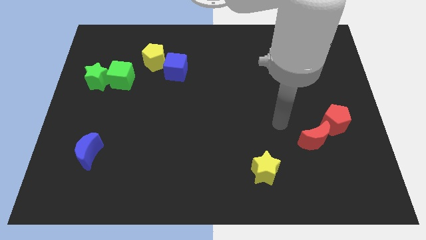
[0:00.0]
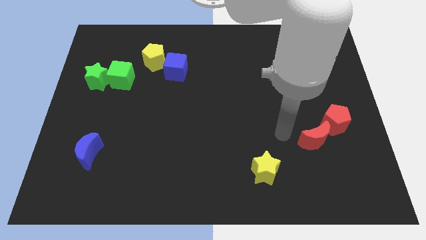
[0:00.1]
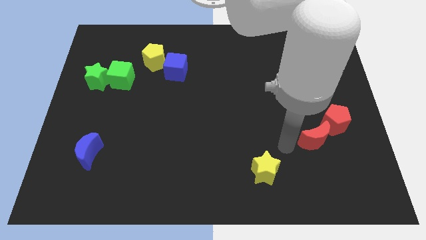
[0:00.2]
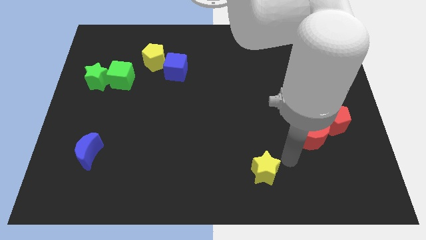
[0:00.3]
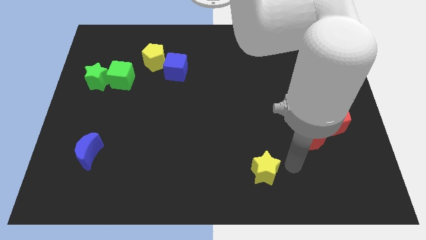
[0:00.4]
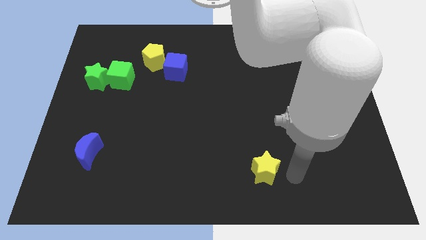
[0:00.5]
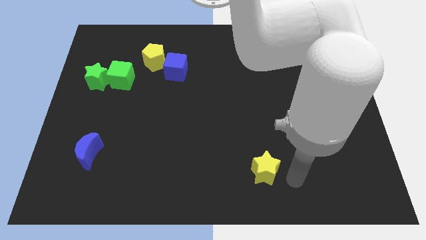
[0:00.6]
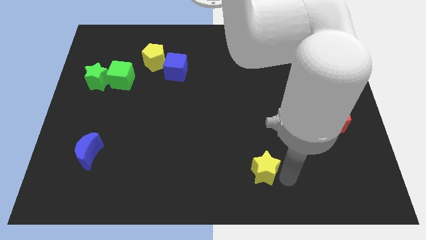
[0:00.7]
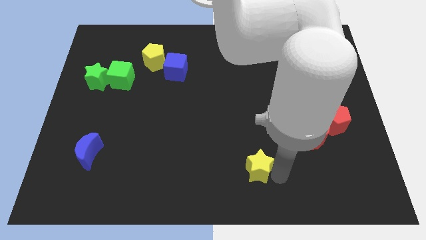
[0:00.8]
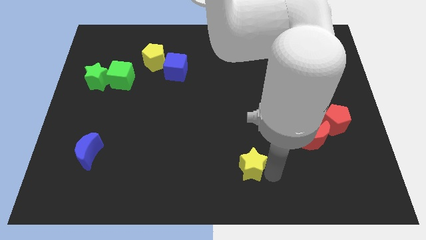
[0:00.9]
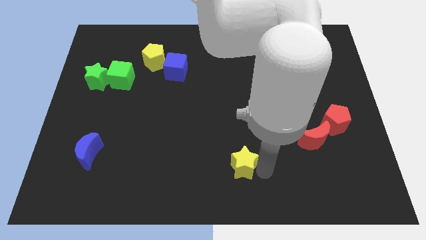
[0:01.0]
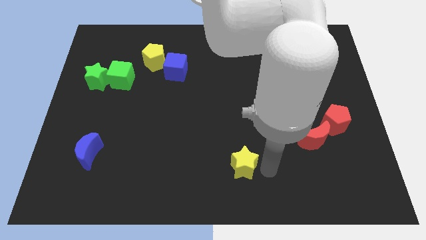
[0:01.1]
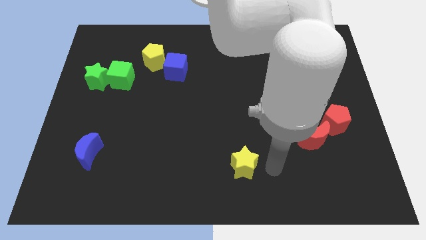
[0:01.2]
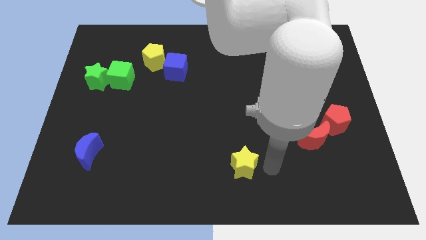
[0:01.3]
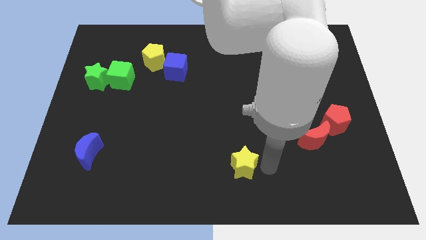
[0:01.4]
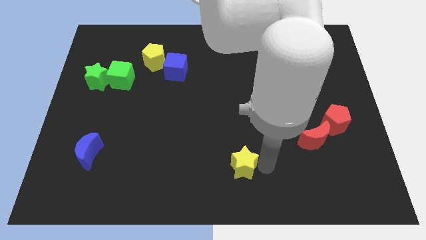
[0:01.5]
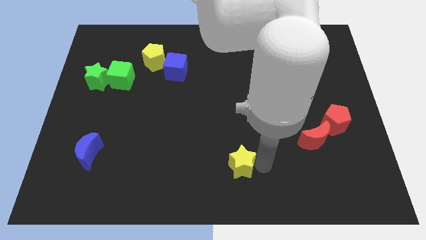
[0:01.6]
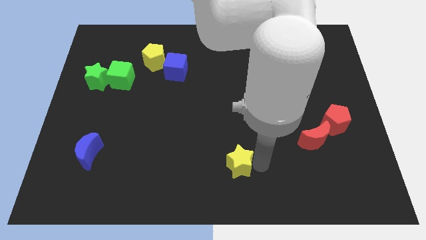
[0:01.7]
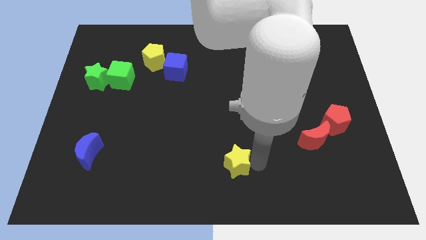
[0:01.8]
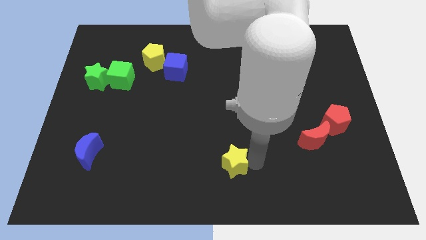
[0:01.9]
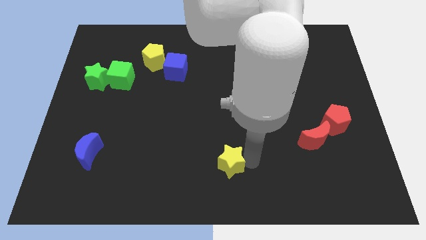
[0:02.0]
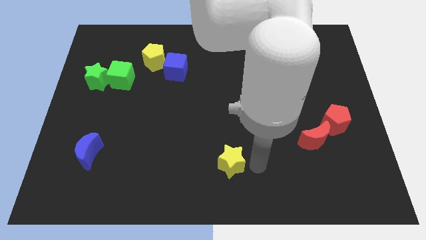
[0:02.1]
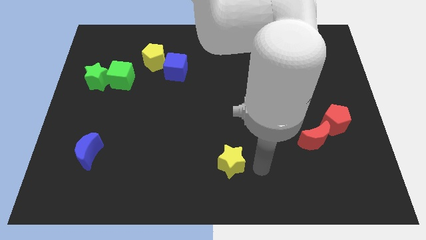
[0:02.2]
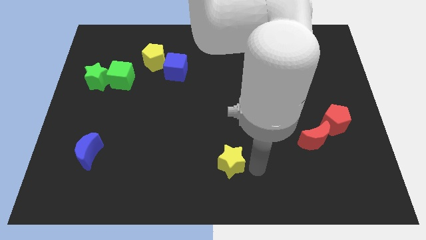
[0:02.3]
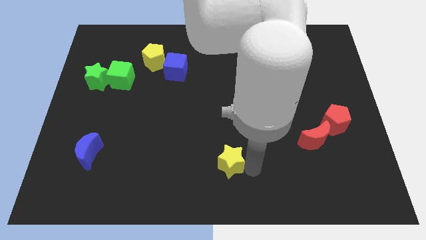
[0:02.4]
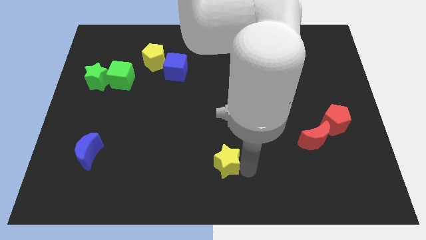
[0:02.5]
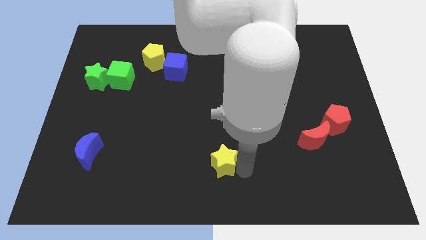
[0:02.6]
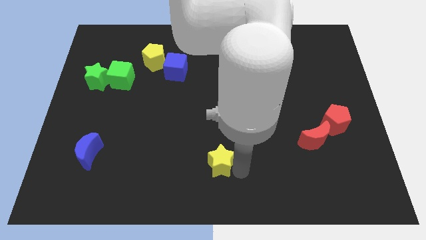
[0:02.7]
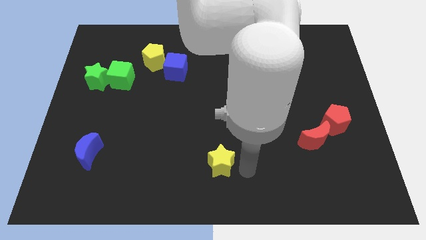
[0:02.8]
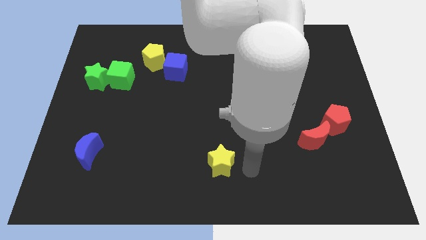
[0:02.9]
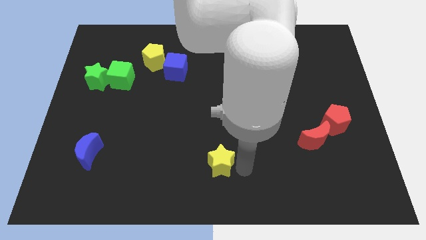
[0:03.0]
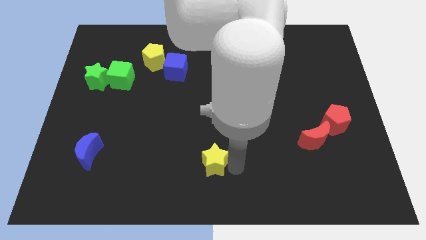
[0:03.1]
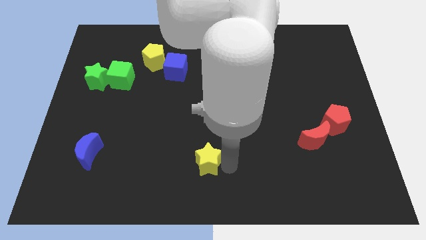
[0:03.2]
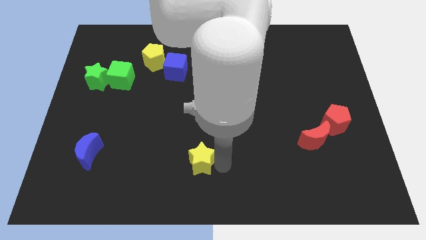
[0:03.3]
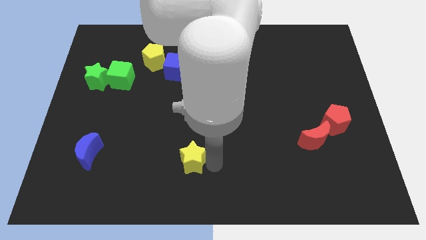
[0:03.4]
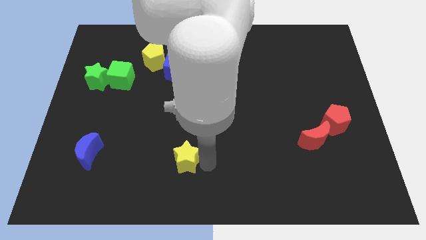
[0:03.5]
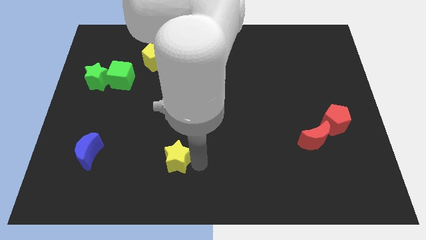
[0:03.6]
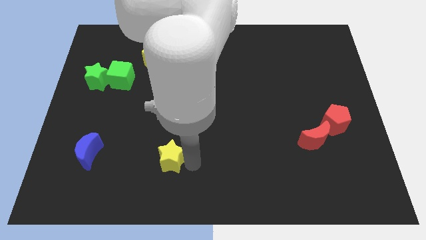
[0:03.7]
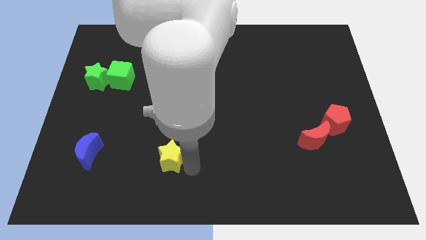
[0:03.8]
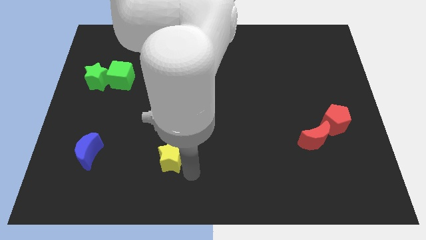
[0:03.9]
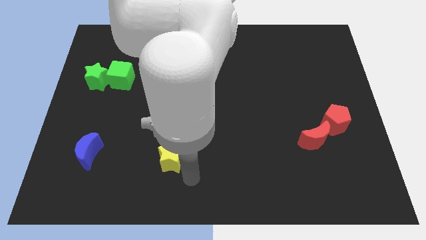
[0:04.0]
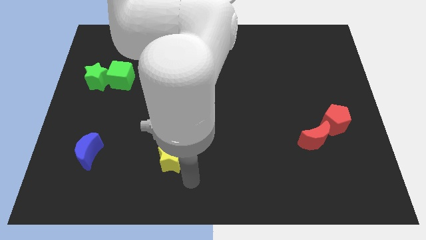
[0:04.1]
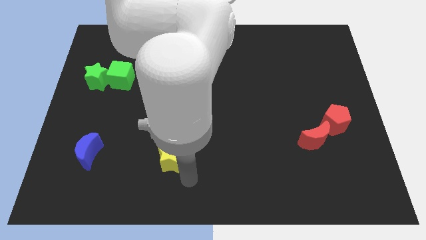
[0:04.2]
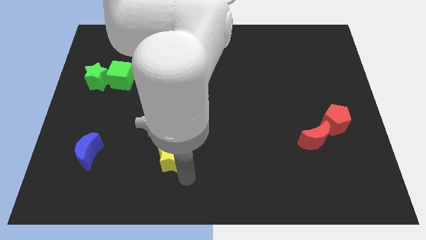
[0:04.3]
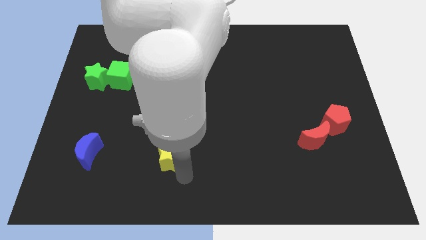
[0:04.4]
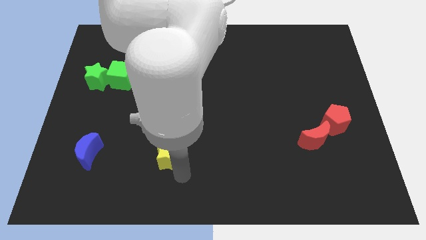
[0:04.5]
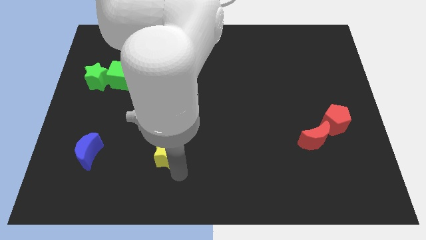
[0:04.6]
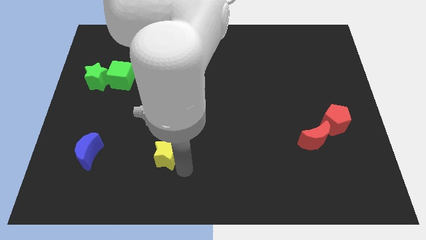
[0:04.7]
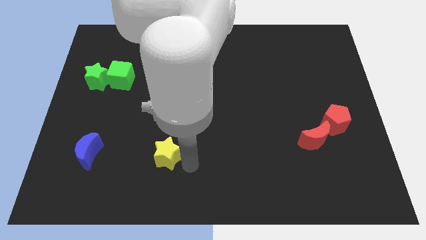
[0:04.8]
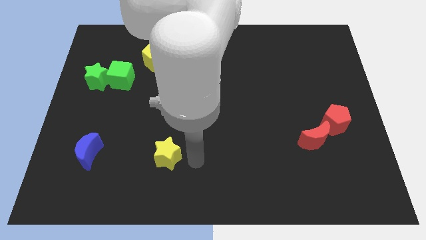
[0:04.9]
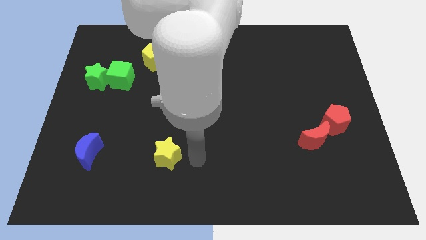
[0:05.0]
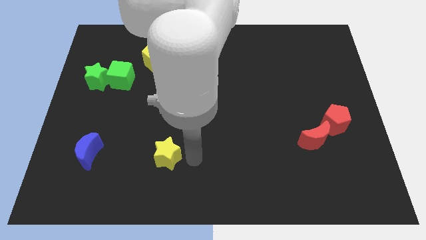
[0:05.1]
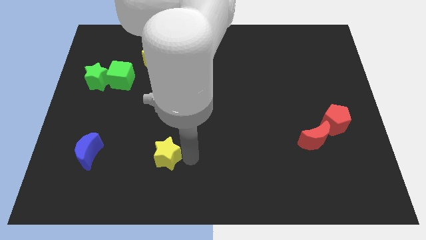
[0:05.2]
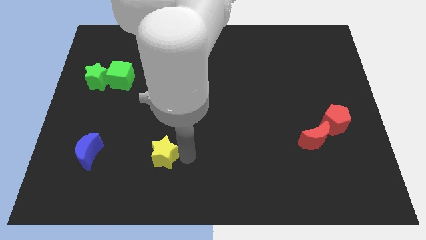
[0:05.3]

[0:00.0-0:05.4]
move the yellow star to the right of the blue moon

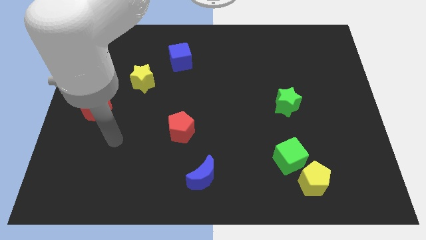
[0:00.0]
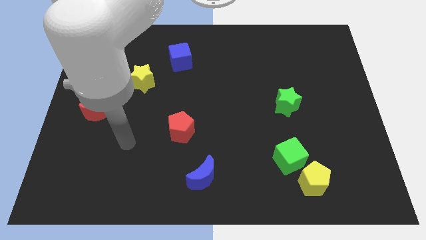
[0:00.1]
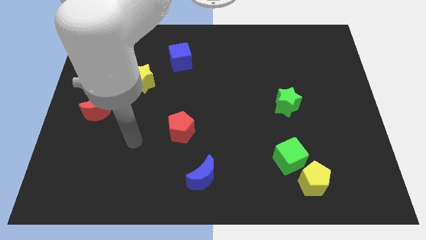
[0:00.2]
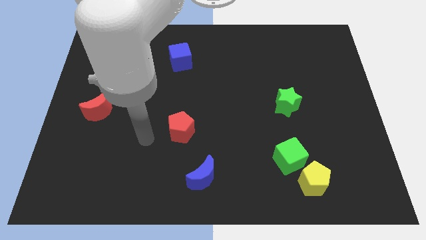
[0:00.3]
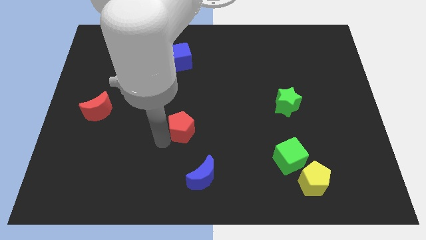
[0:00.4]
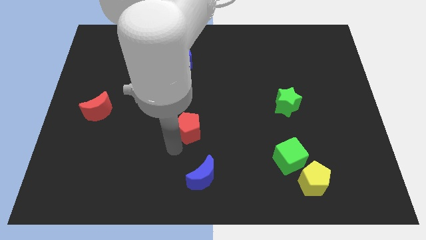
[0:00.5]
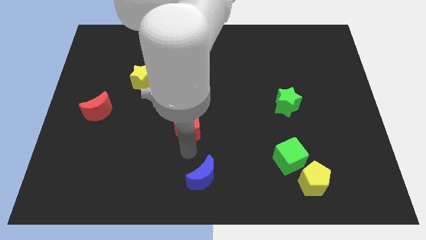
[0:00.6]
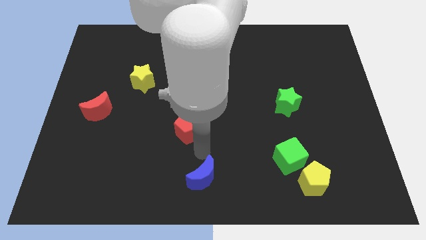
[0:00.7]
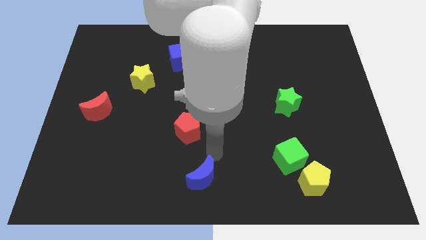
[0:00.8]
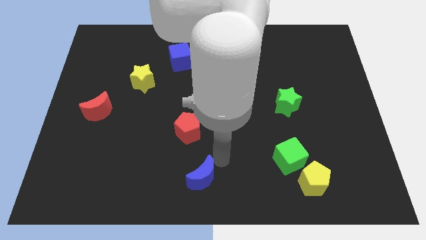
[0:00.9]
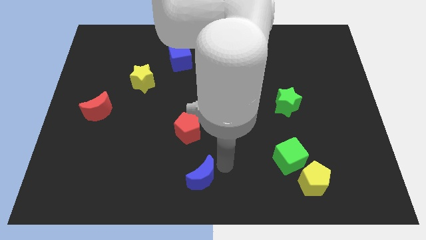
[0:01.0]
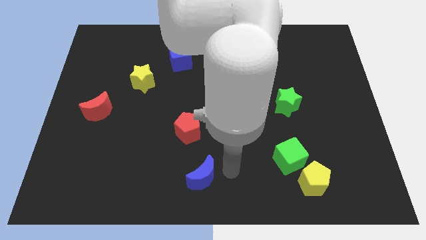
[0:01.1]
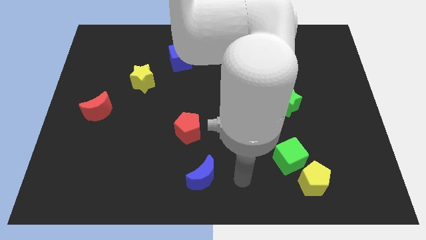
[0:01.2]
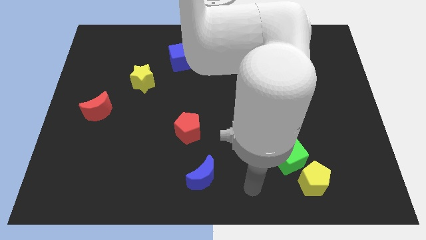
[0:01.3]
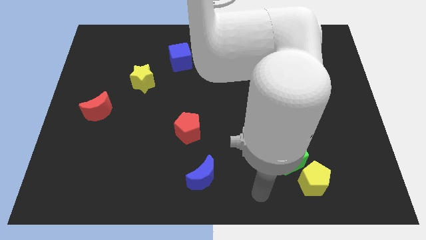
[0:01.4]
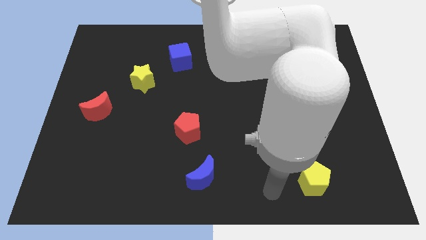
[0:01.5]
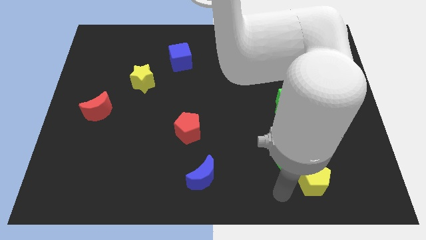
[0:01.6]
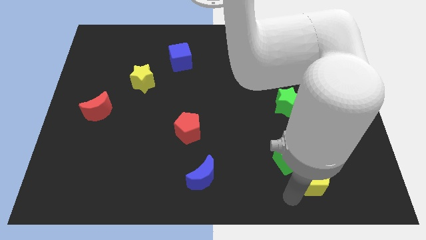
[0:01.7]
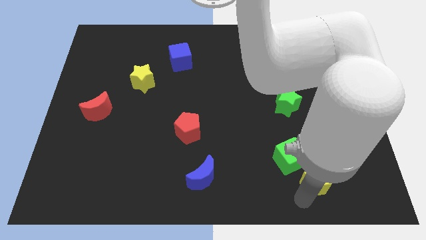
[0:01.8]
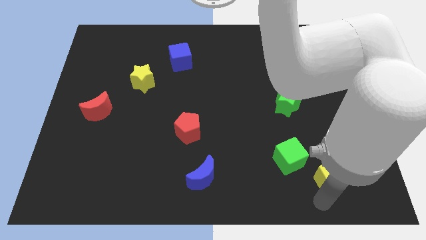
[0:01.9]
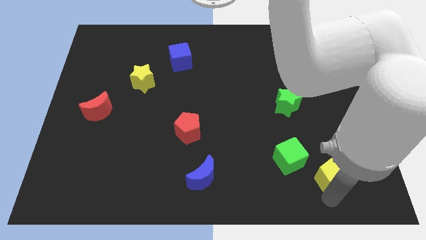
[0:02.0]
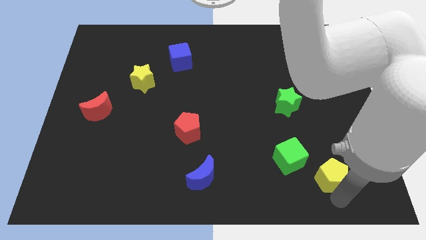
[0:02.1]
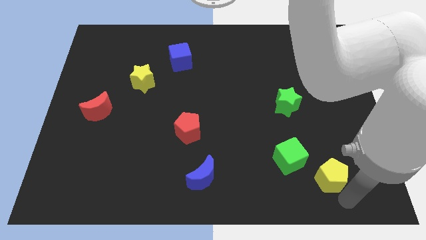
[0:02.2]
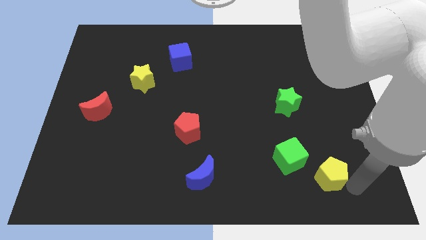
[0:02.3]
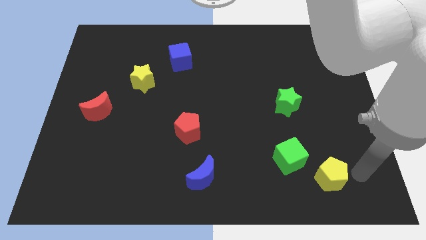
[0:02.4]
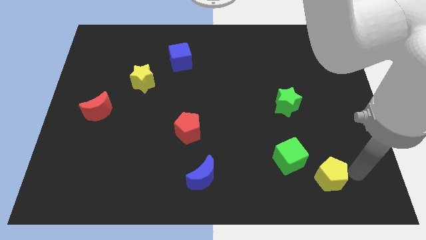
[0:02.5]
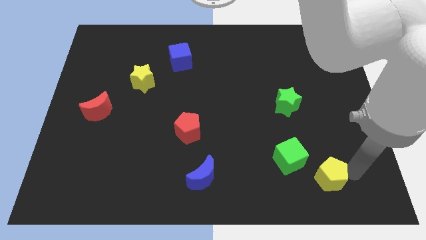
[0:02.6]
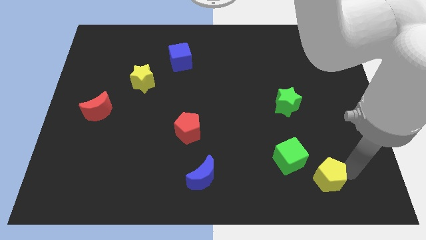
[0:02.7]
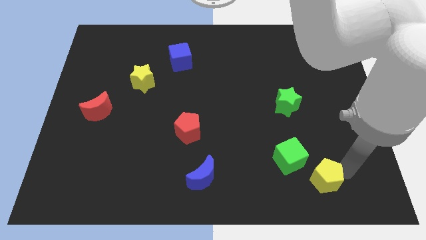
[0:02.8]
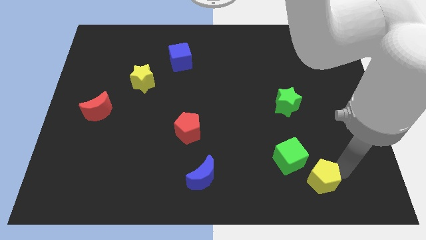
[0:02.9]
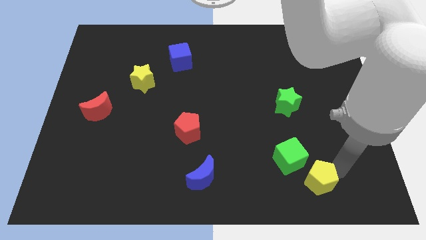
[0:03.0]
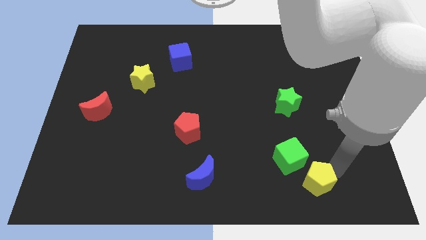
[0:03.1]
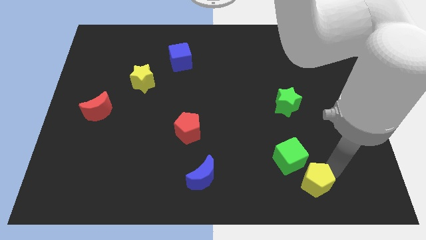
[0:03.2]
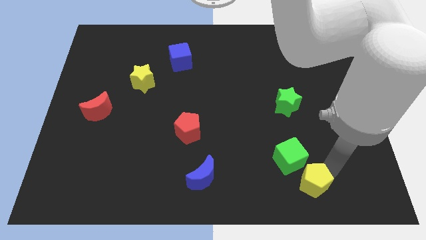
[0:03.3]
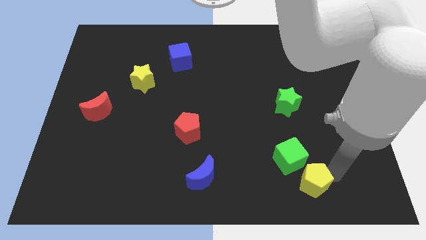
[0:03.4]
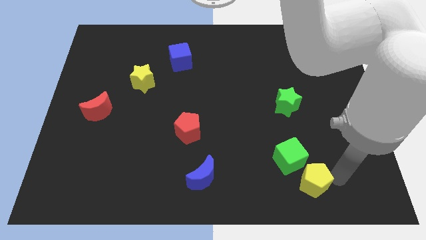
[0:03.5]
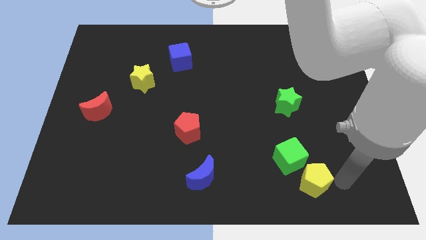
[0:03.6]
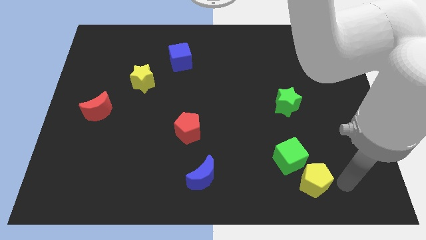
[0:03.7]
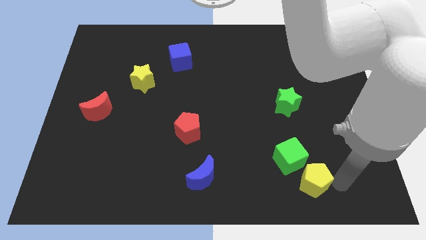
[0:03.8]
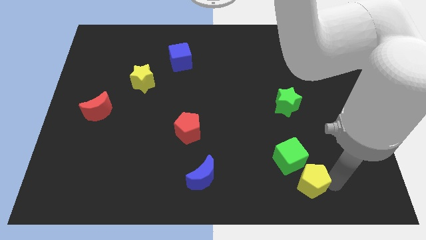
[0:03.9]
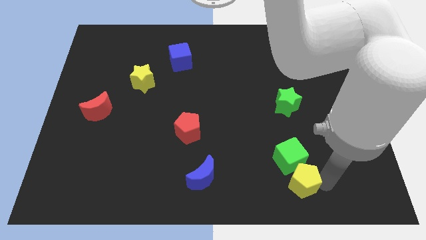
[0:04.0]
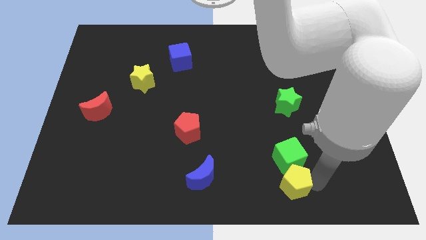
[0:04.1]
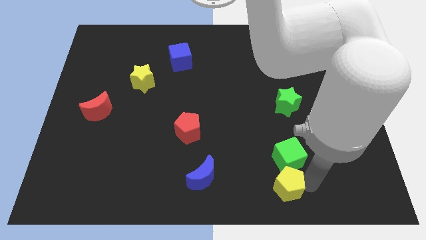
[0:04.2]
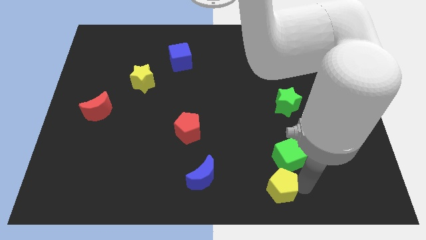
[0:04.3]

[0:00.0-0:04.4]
put the yellow pentagon to the right side of the blue moon
